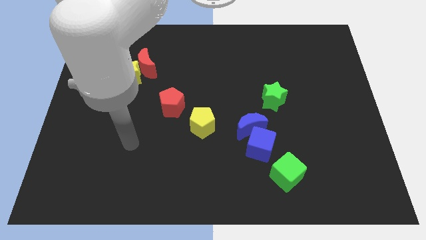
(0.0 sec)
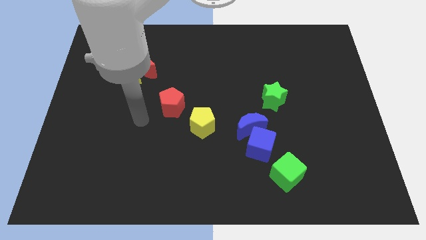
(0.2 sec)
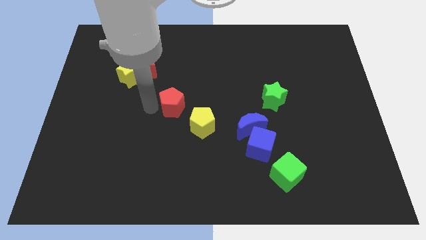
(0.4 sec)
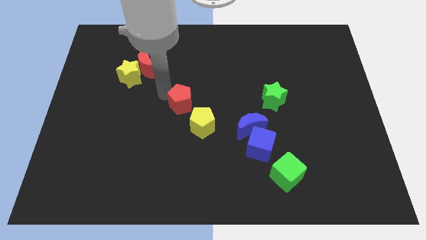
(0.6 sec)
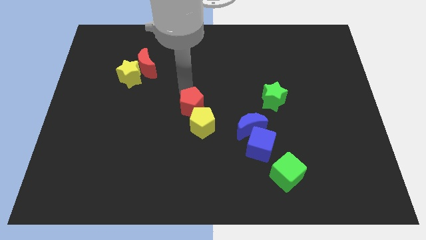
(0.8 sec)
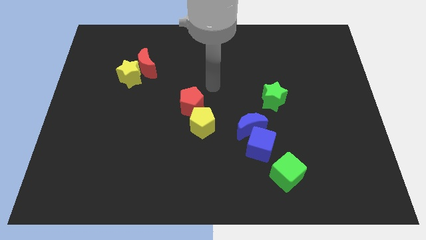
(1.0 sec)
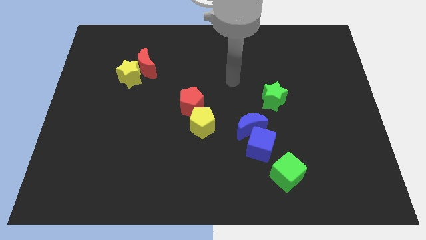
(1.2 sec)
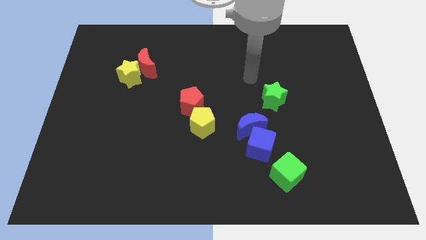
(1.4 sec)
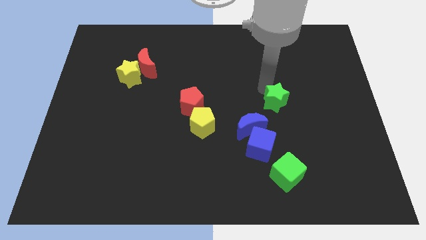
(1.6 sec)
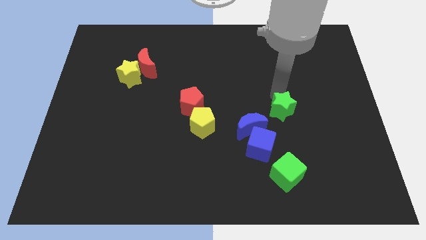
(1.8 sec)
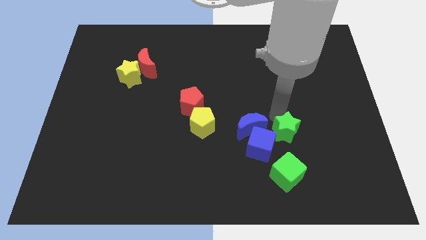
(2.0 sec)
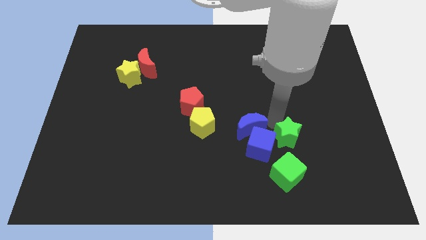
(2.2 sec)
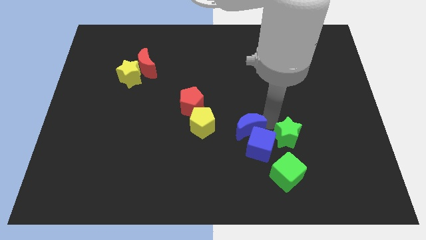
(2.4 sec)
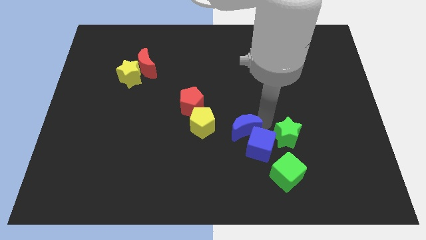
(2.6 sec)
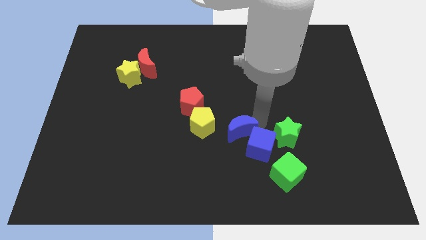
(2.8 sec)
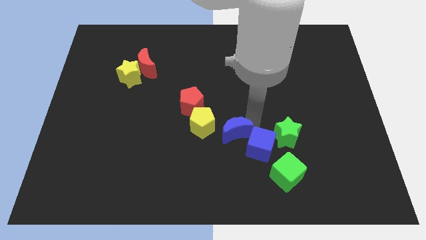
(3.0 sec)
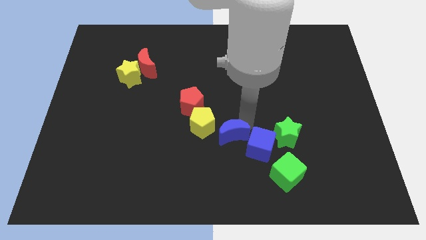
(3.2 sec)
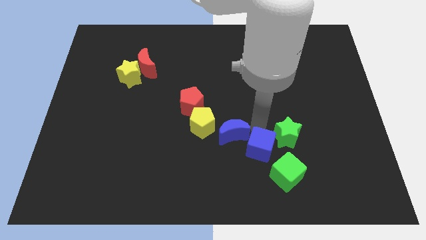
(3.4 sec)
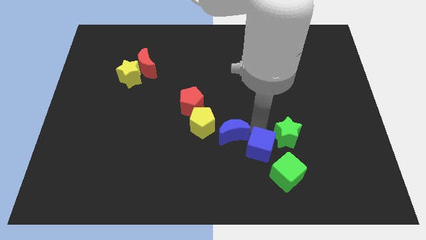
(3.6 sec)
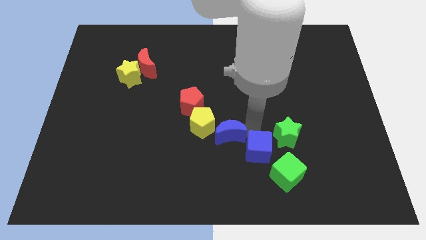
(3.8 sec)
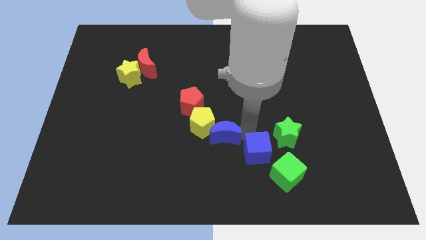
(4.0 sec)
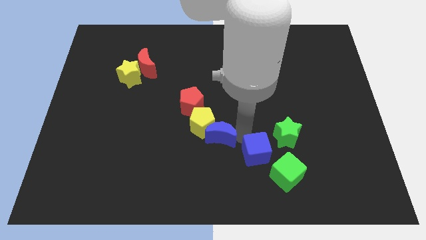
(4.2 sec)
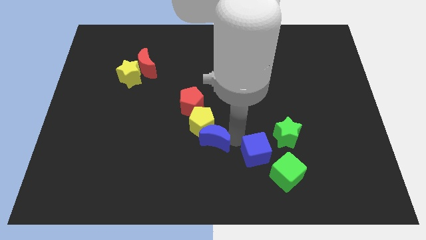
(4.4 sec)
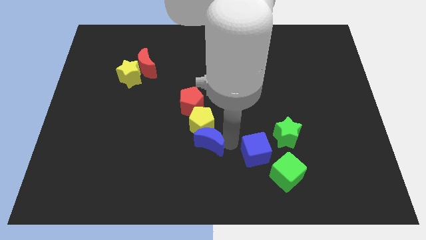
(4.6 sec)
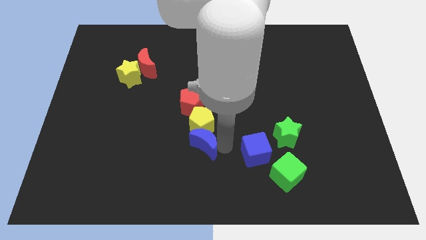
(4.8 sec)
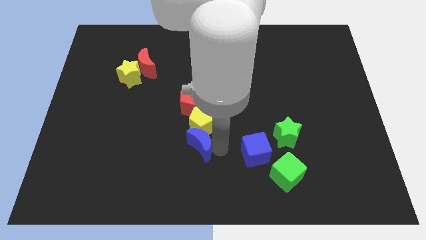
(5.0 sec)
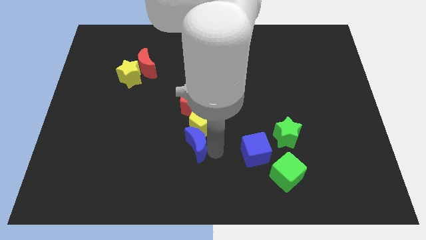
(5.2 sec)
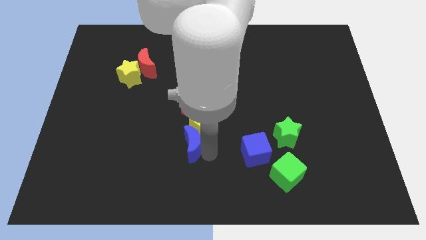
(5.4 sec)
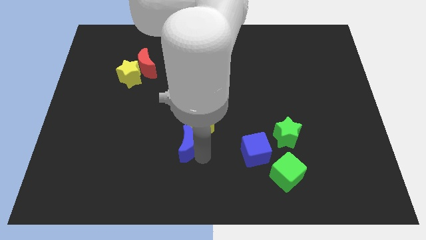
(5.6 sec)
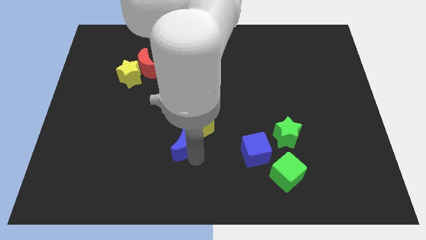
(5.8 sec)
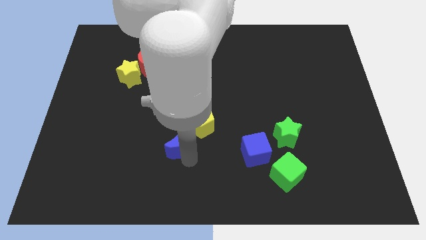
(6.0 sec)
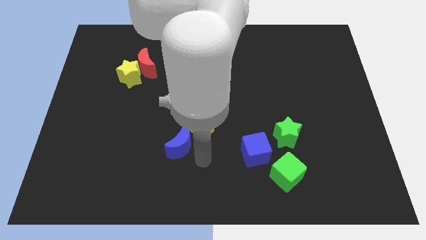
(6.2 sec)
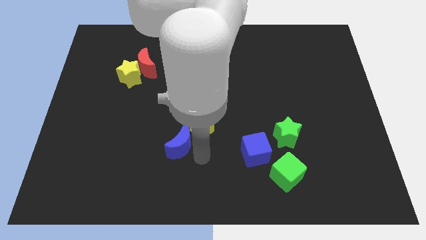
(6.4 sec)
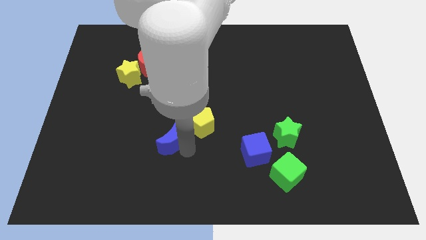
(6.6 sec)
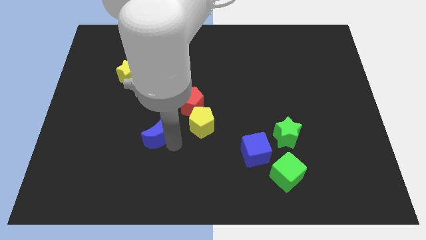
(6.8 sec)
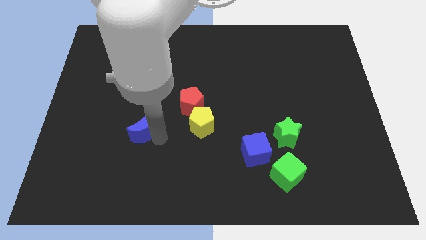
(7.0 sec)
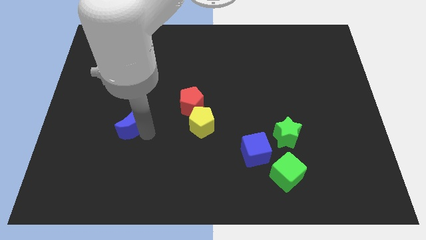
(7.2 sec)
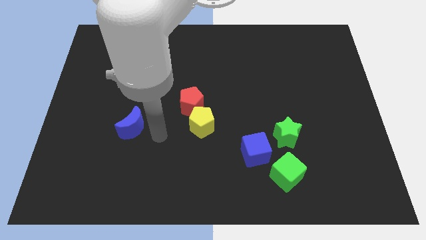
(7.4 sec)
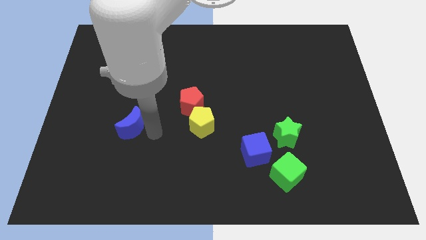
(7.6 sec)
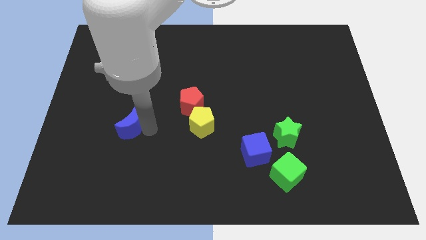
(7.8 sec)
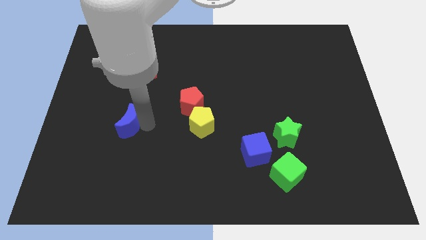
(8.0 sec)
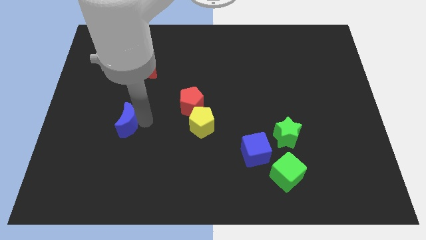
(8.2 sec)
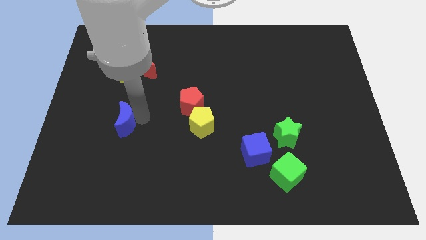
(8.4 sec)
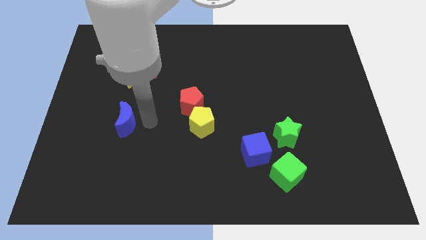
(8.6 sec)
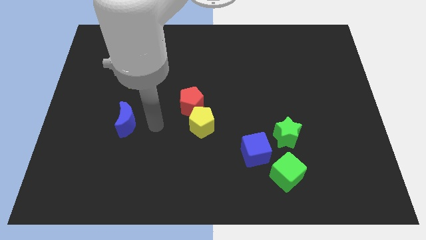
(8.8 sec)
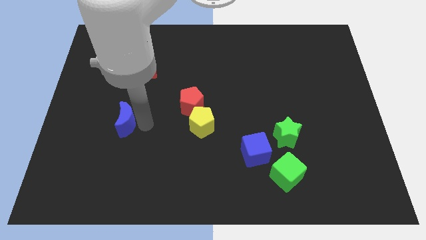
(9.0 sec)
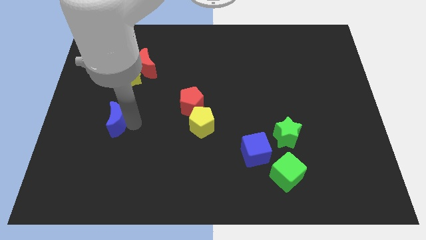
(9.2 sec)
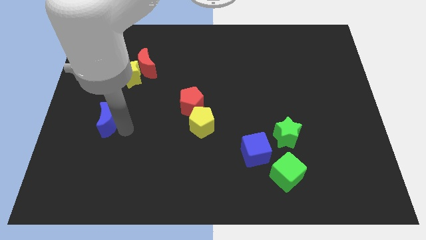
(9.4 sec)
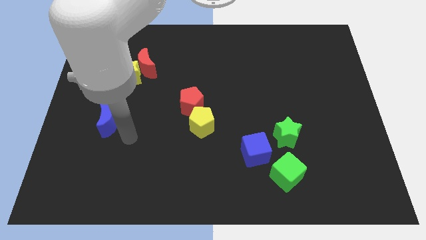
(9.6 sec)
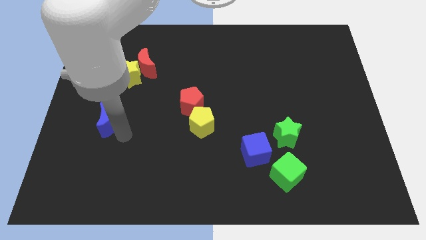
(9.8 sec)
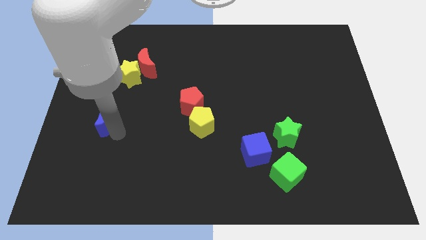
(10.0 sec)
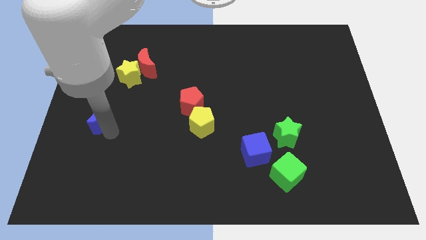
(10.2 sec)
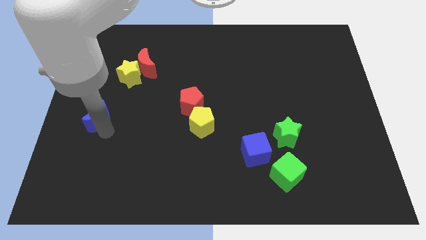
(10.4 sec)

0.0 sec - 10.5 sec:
put the blue moon to the center left

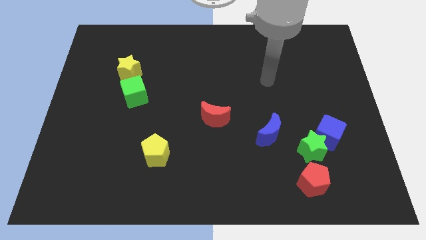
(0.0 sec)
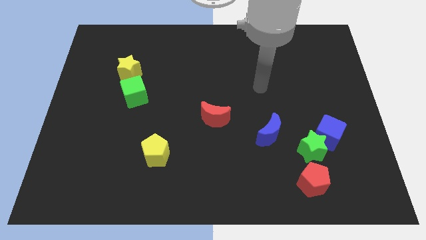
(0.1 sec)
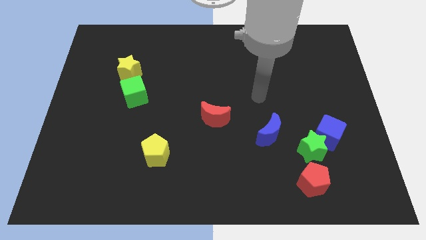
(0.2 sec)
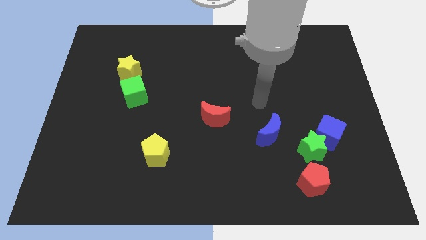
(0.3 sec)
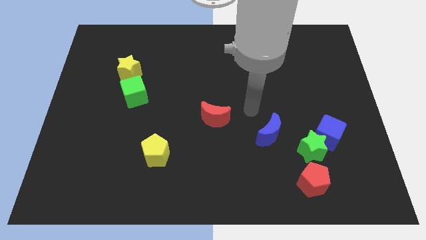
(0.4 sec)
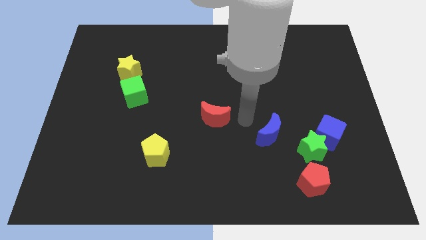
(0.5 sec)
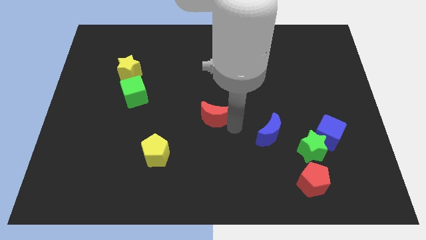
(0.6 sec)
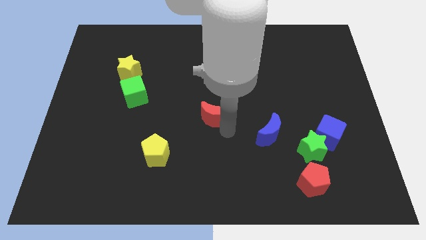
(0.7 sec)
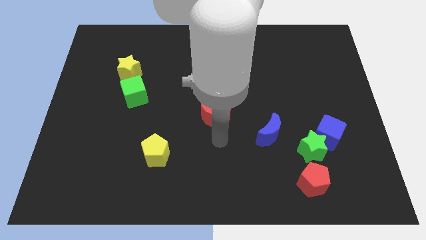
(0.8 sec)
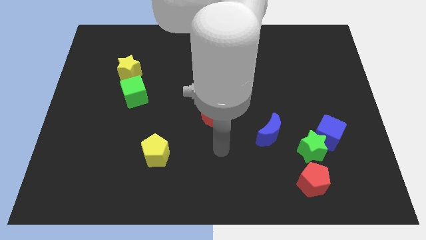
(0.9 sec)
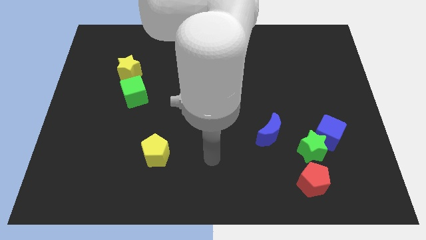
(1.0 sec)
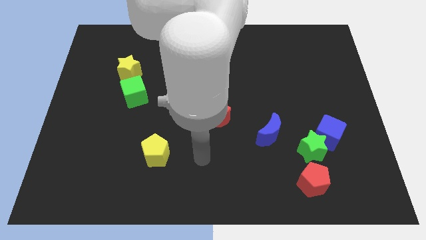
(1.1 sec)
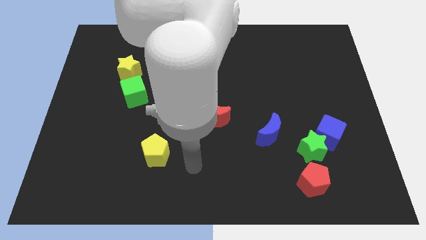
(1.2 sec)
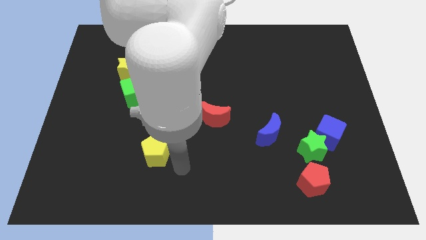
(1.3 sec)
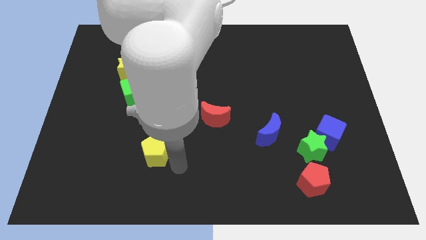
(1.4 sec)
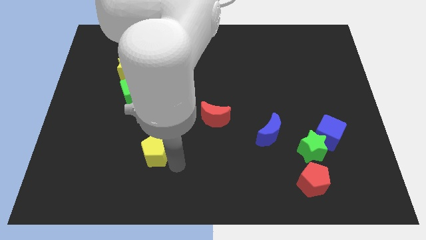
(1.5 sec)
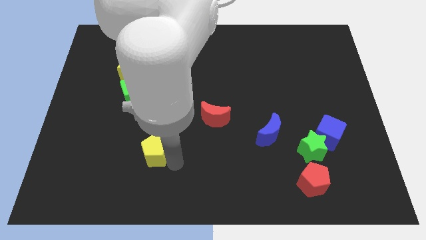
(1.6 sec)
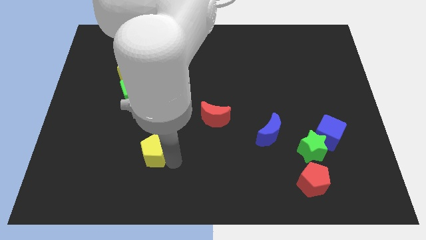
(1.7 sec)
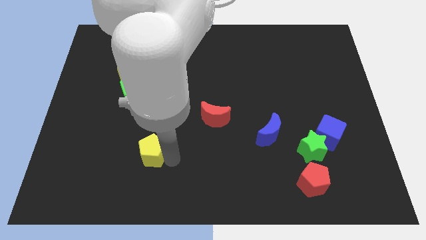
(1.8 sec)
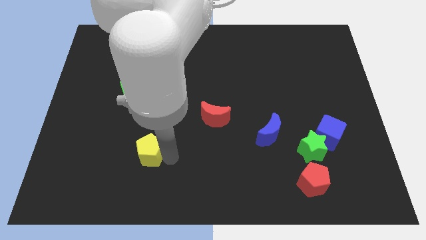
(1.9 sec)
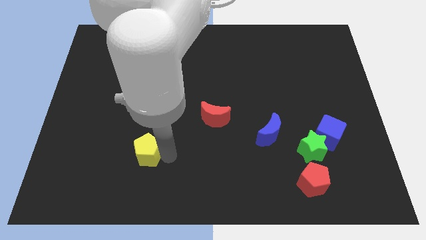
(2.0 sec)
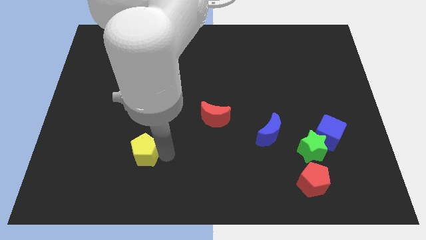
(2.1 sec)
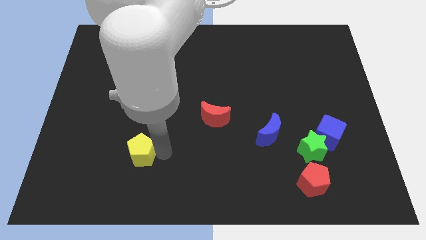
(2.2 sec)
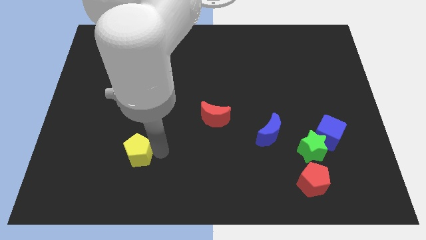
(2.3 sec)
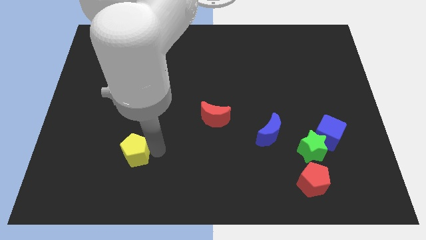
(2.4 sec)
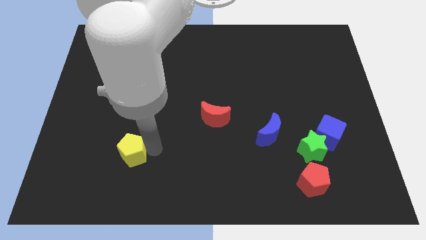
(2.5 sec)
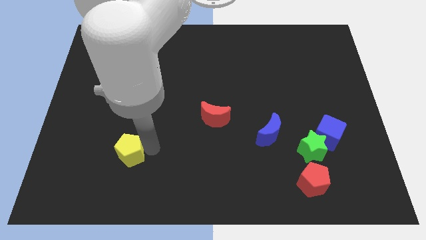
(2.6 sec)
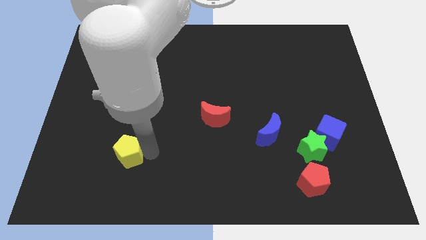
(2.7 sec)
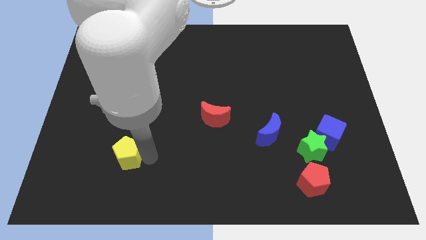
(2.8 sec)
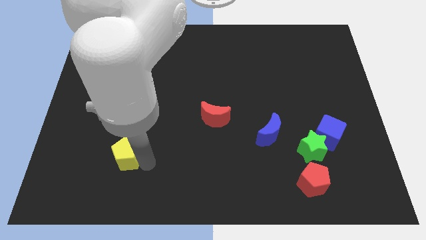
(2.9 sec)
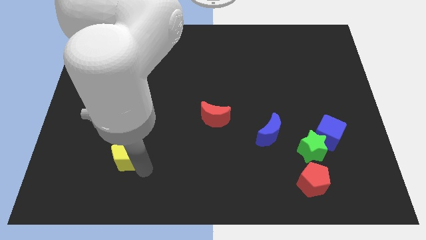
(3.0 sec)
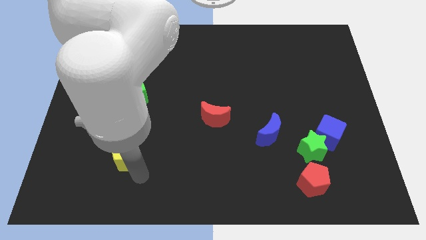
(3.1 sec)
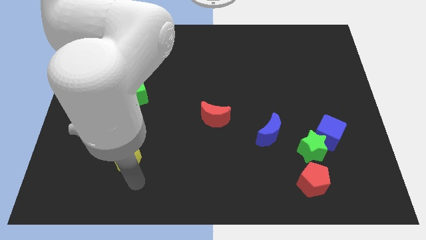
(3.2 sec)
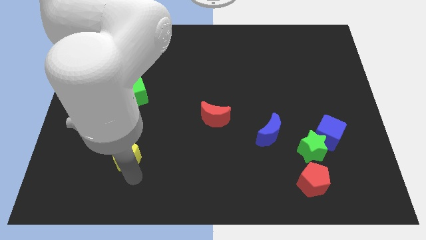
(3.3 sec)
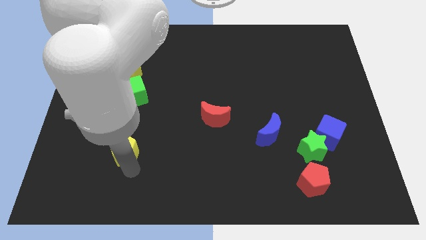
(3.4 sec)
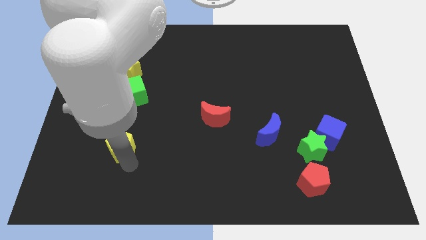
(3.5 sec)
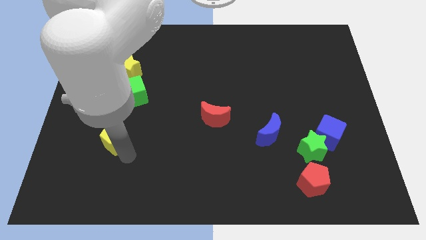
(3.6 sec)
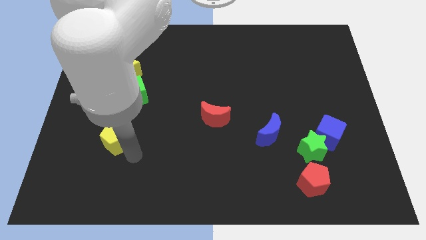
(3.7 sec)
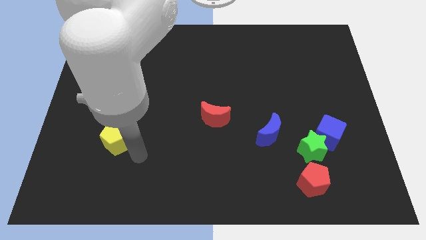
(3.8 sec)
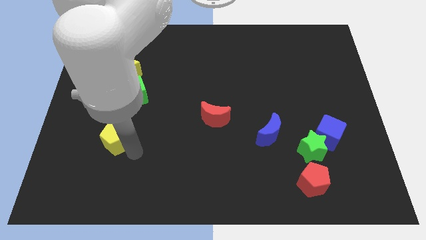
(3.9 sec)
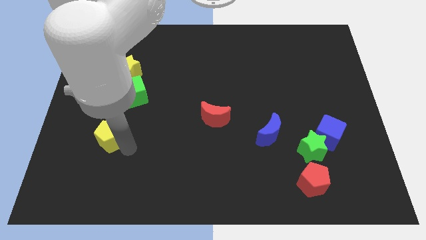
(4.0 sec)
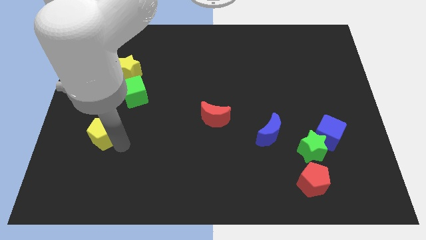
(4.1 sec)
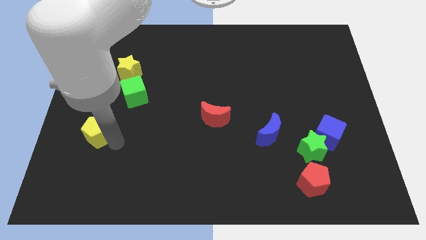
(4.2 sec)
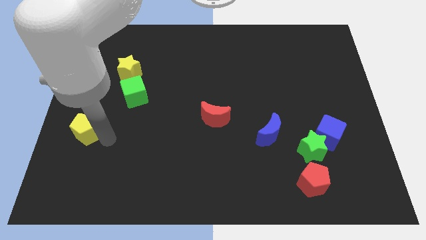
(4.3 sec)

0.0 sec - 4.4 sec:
slide the yellow pentagon to the left side of the board
